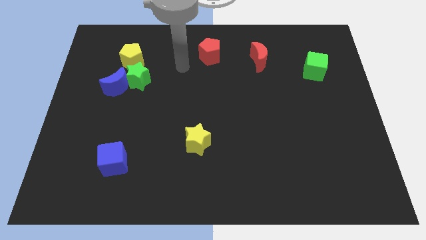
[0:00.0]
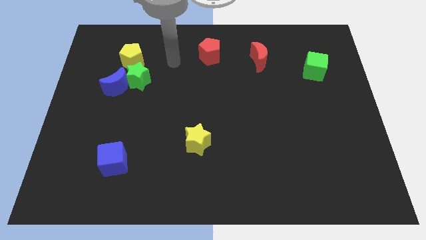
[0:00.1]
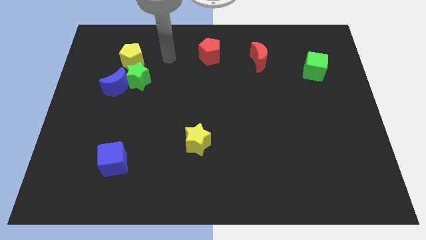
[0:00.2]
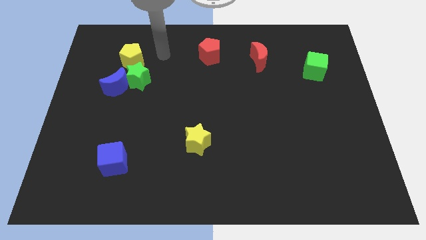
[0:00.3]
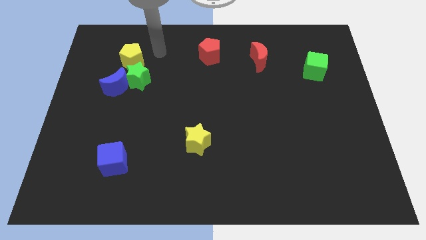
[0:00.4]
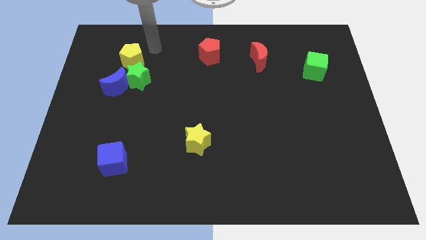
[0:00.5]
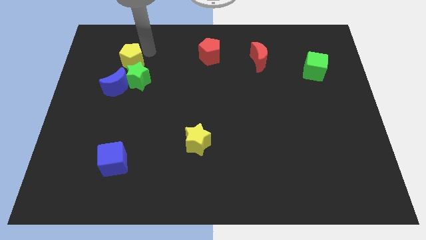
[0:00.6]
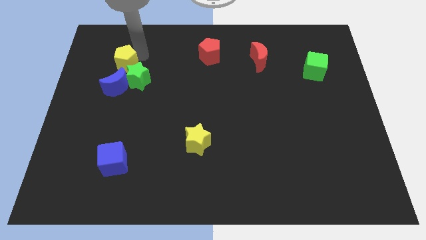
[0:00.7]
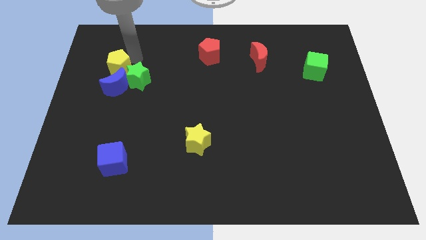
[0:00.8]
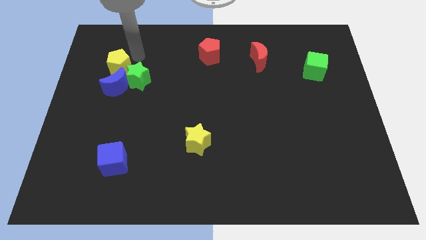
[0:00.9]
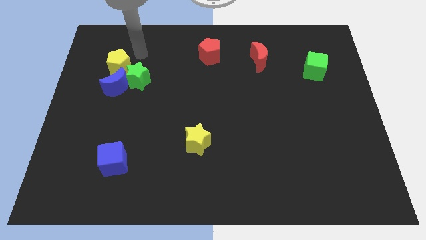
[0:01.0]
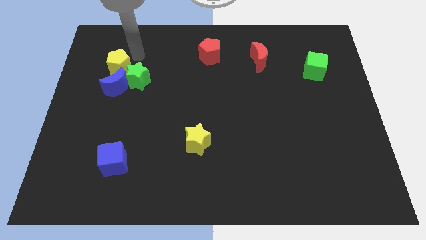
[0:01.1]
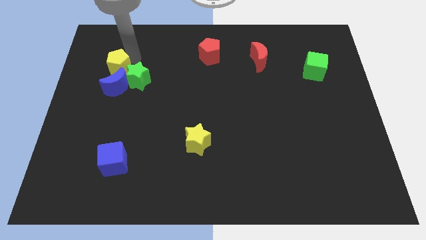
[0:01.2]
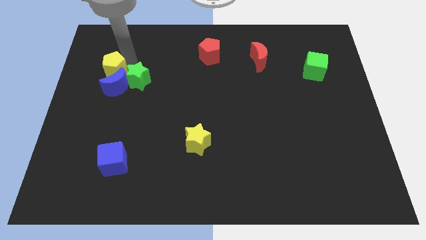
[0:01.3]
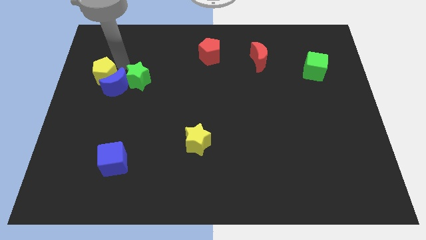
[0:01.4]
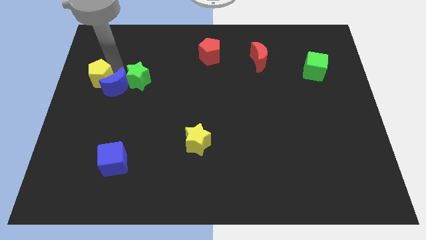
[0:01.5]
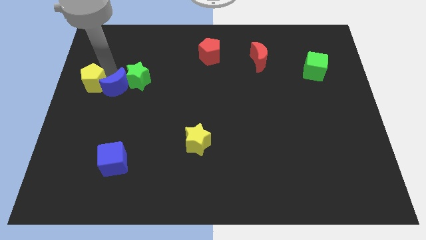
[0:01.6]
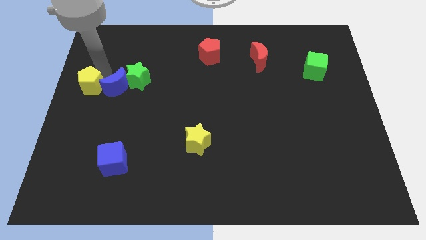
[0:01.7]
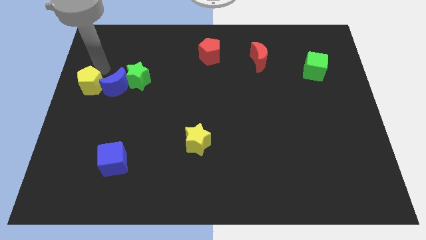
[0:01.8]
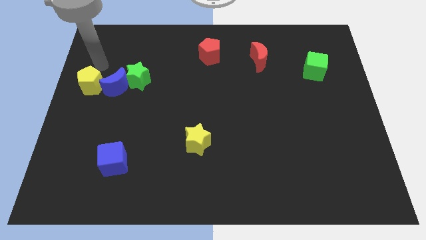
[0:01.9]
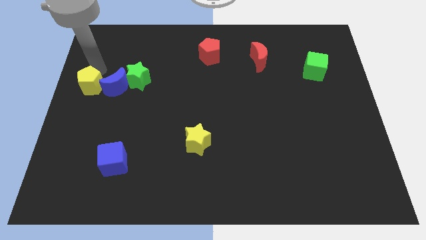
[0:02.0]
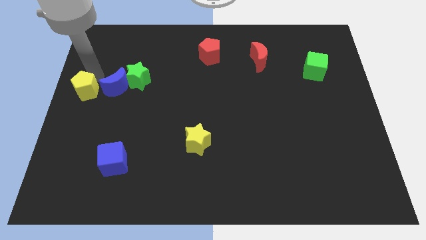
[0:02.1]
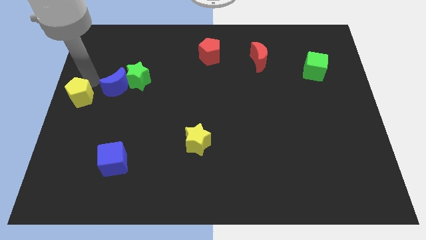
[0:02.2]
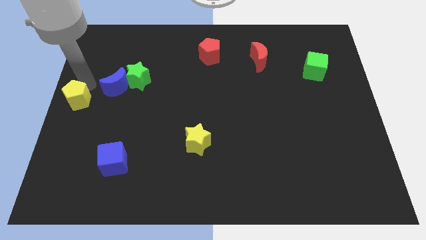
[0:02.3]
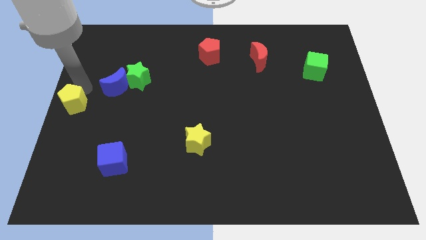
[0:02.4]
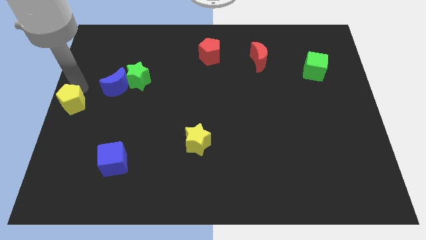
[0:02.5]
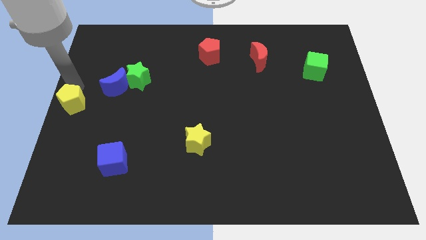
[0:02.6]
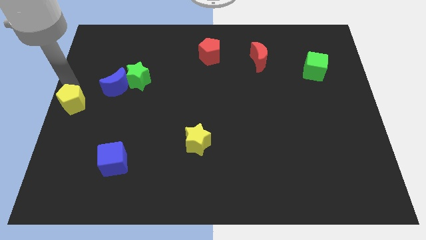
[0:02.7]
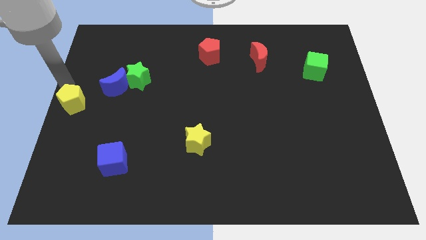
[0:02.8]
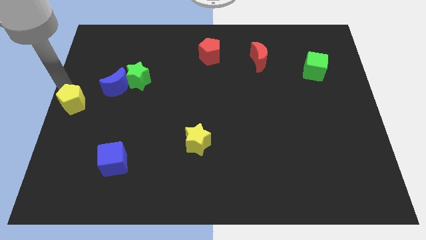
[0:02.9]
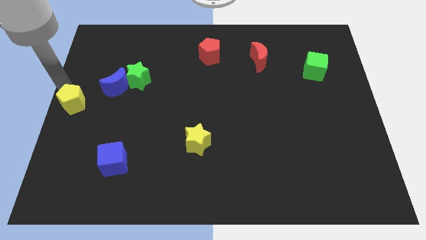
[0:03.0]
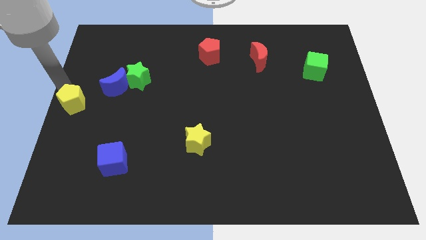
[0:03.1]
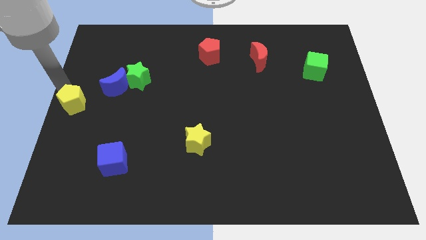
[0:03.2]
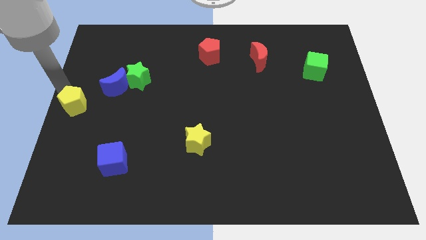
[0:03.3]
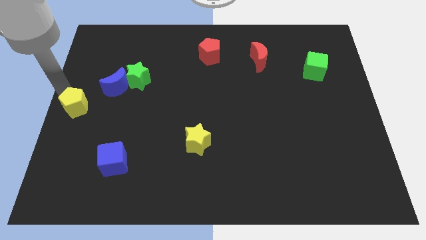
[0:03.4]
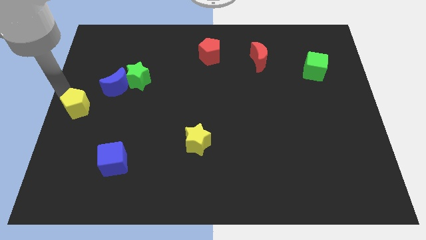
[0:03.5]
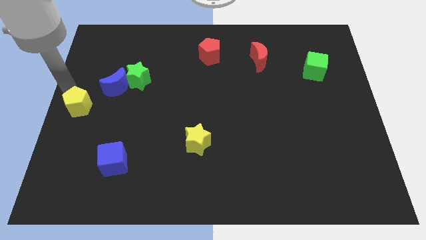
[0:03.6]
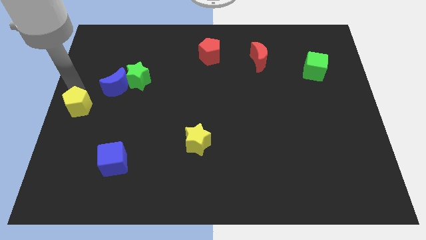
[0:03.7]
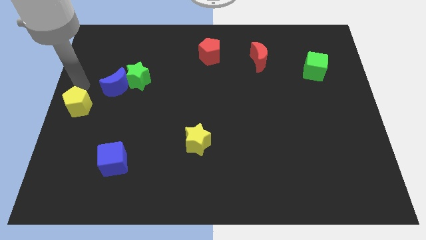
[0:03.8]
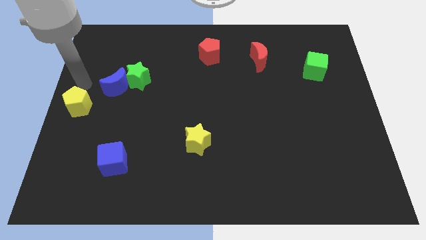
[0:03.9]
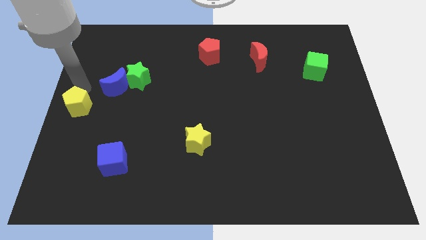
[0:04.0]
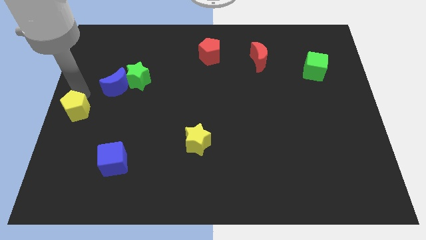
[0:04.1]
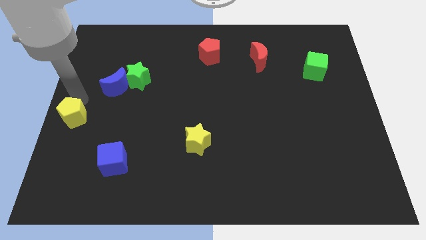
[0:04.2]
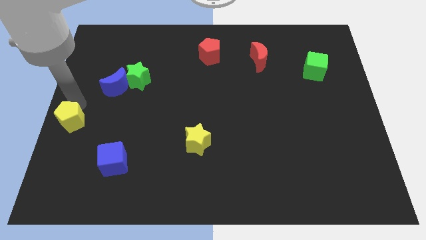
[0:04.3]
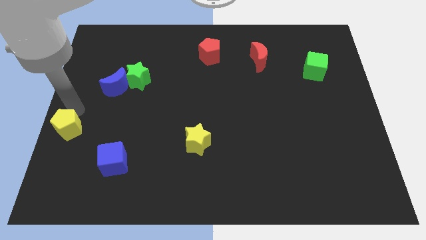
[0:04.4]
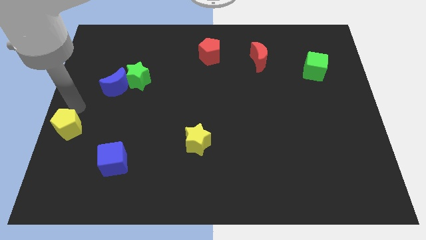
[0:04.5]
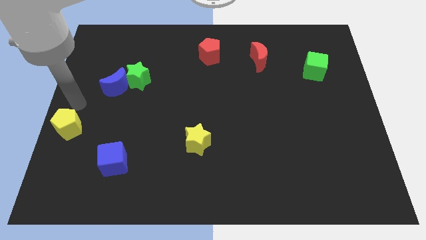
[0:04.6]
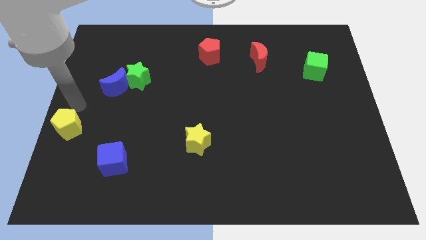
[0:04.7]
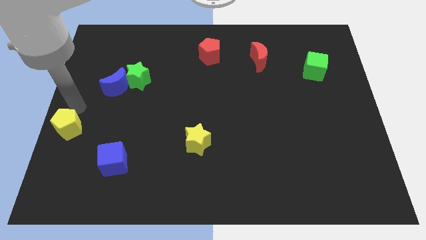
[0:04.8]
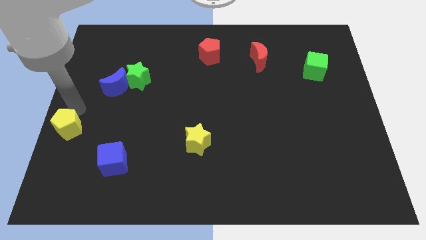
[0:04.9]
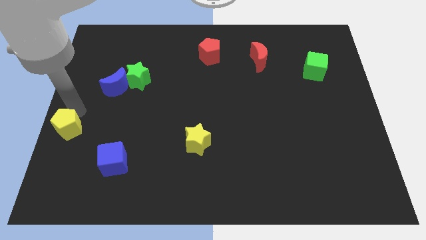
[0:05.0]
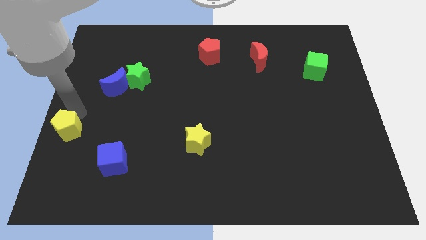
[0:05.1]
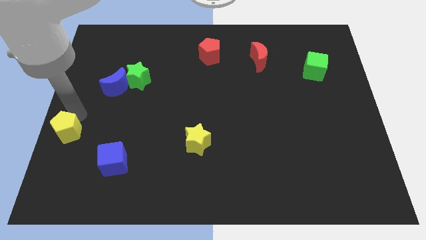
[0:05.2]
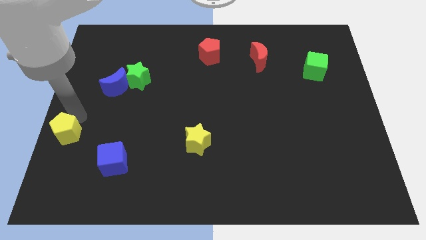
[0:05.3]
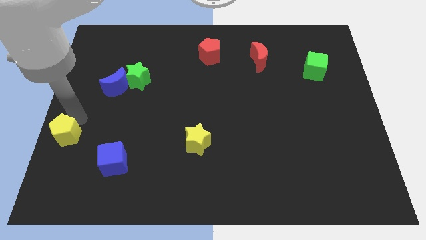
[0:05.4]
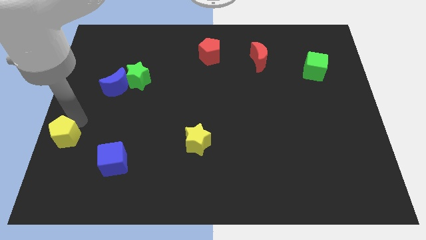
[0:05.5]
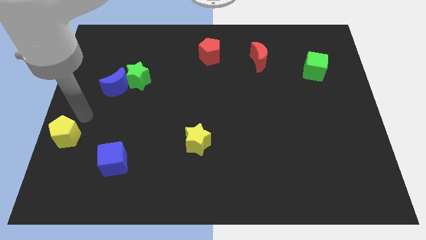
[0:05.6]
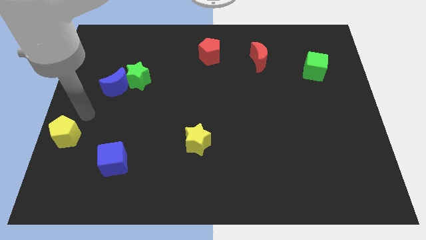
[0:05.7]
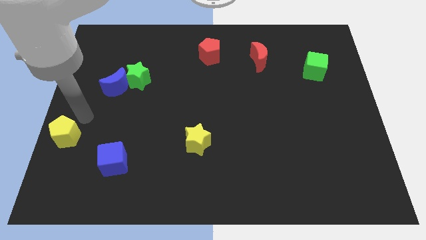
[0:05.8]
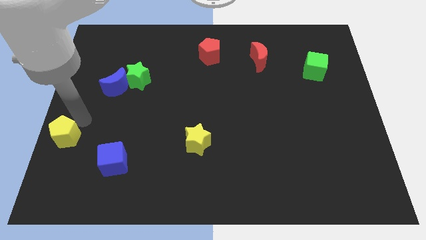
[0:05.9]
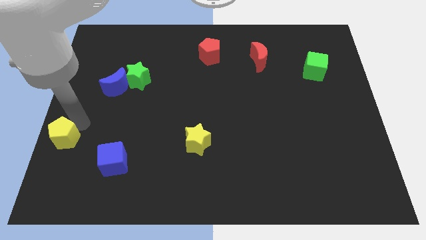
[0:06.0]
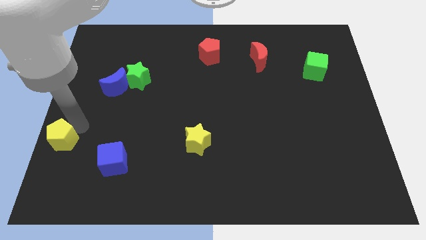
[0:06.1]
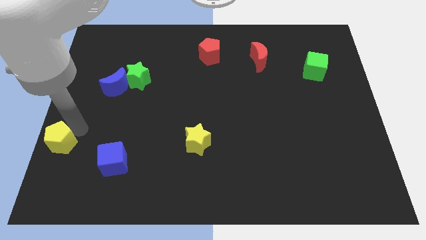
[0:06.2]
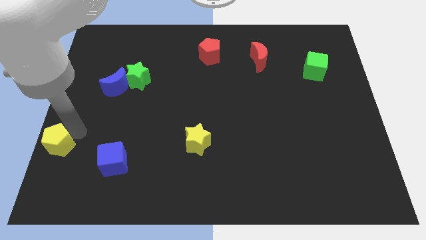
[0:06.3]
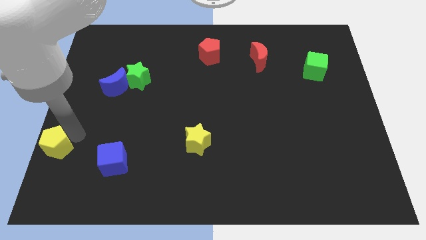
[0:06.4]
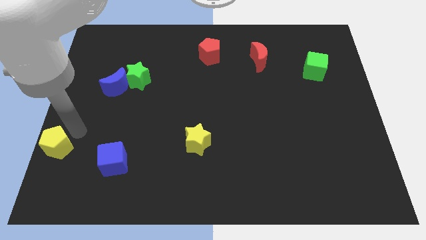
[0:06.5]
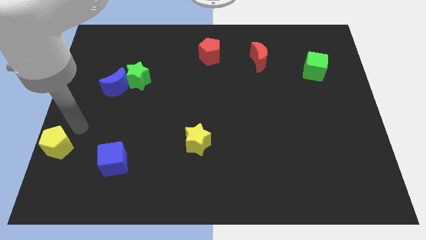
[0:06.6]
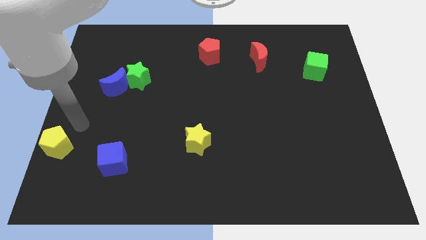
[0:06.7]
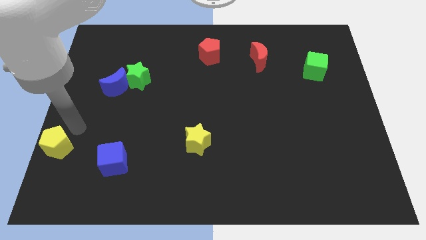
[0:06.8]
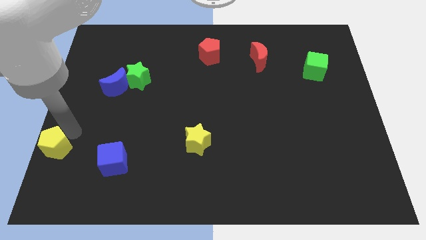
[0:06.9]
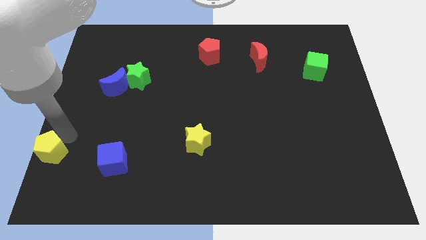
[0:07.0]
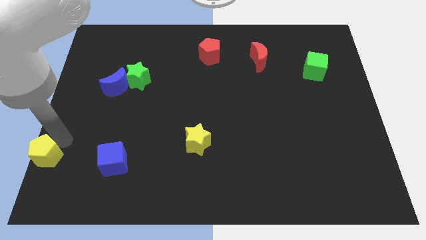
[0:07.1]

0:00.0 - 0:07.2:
move the yellow pentagon to the bottom left

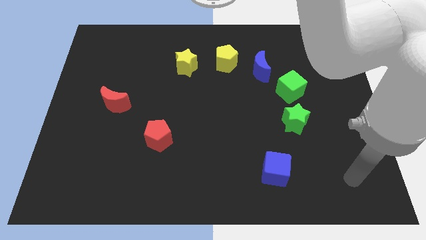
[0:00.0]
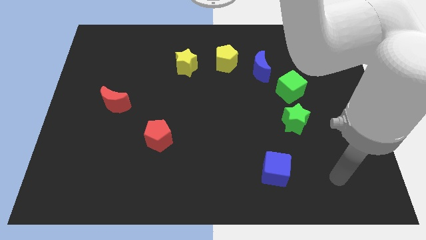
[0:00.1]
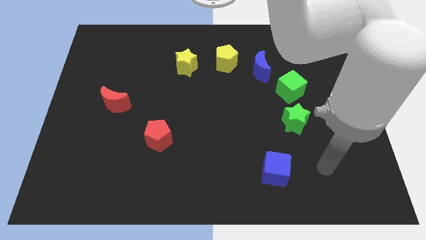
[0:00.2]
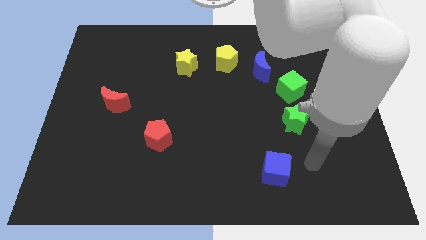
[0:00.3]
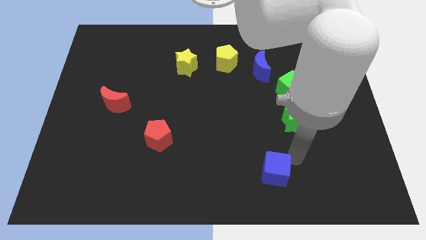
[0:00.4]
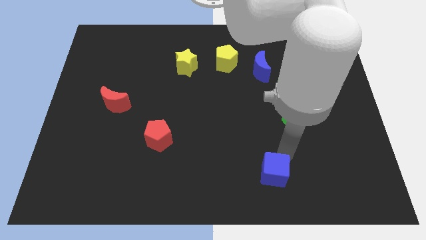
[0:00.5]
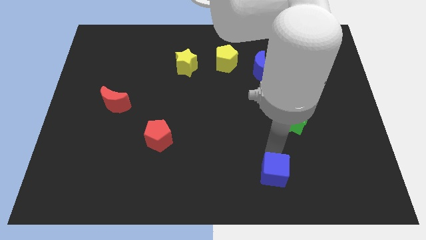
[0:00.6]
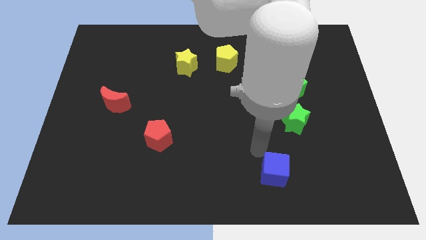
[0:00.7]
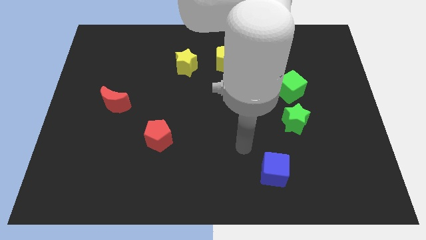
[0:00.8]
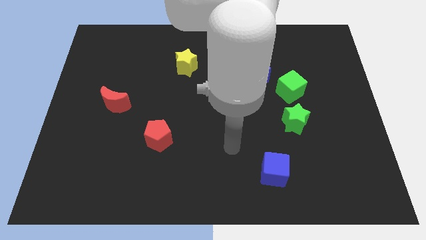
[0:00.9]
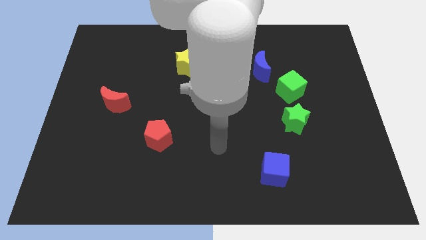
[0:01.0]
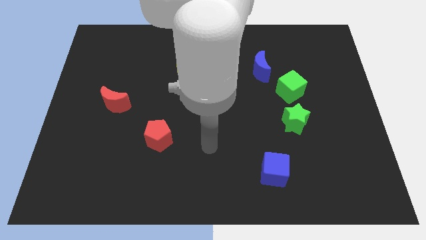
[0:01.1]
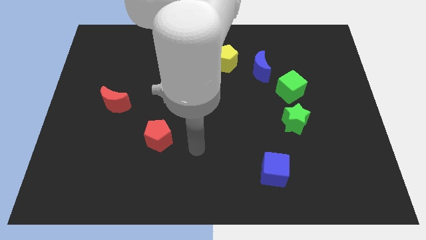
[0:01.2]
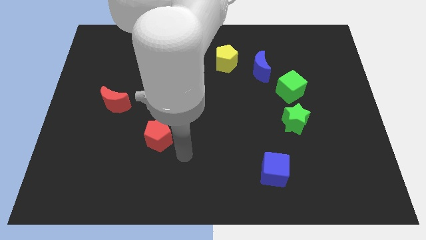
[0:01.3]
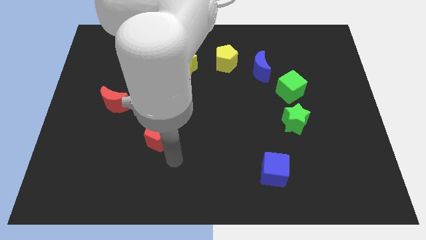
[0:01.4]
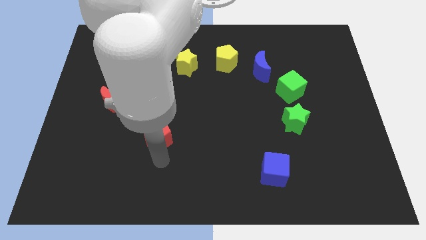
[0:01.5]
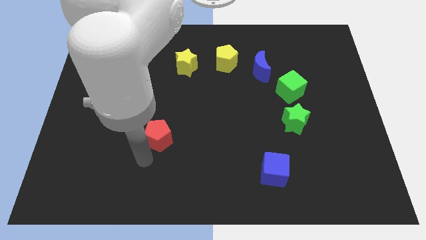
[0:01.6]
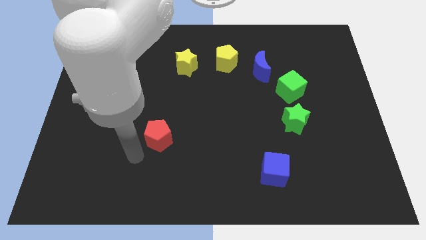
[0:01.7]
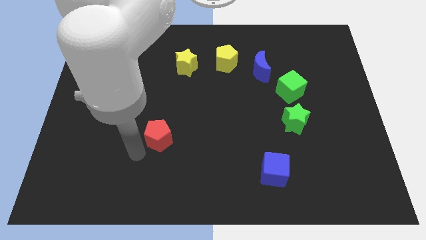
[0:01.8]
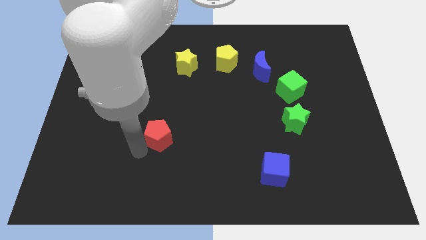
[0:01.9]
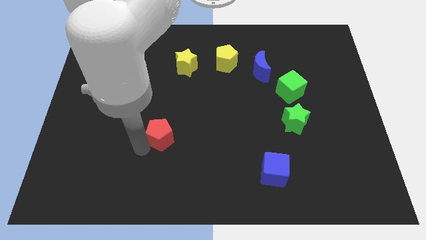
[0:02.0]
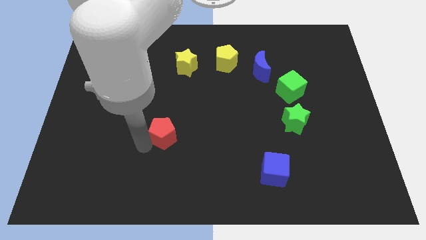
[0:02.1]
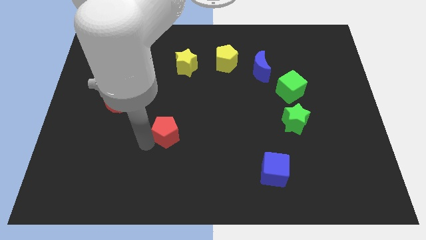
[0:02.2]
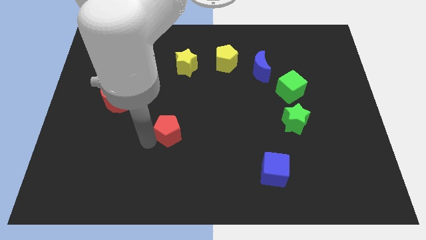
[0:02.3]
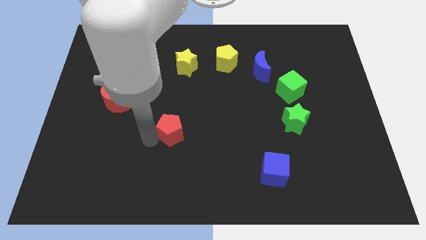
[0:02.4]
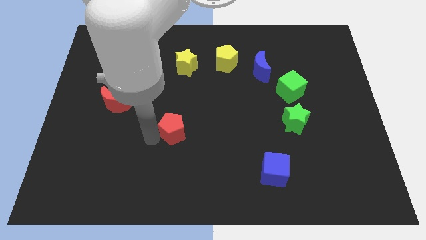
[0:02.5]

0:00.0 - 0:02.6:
put the red pentagon to the middle
